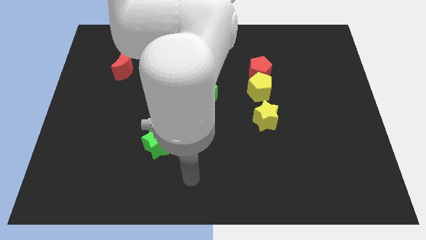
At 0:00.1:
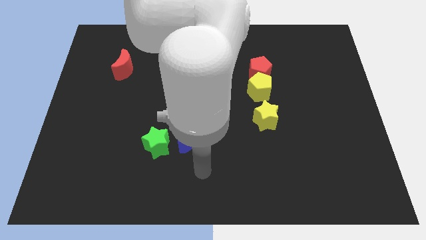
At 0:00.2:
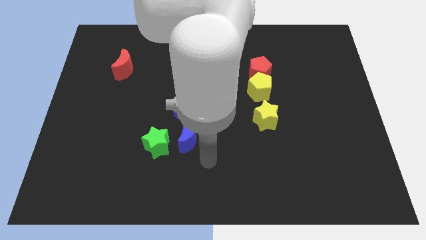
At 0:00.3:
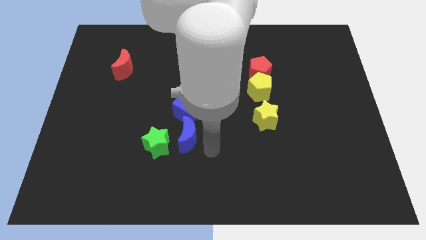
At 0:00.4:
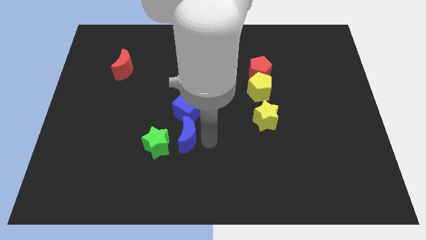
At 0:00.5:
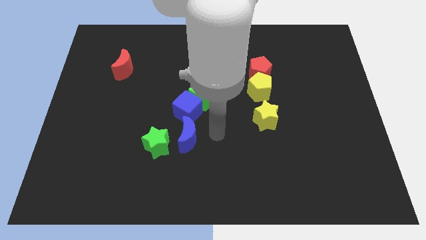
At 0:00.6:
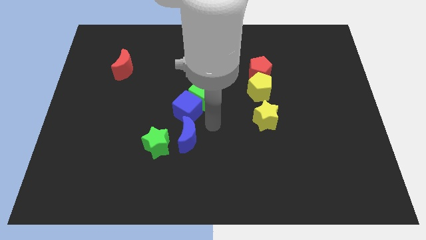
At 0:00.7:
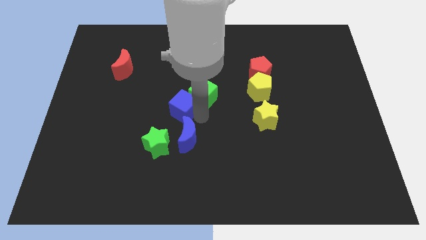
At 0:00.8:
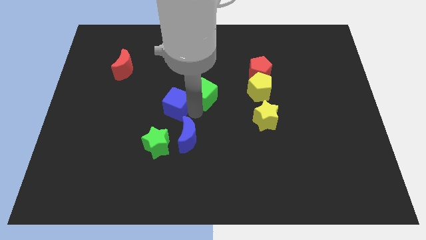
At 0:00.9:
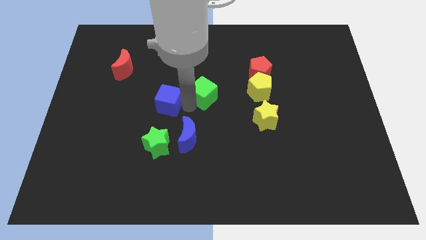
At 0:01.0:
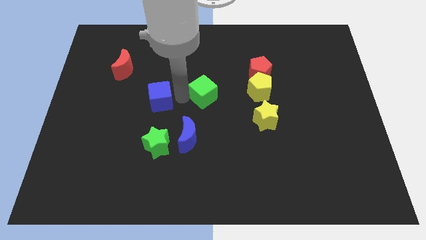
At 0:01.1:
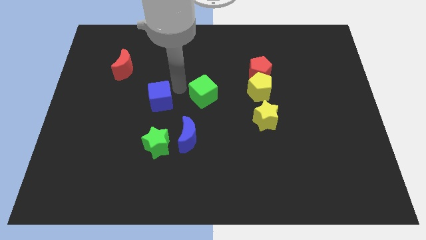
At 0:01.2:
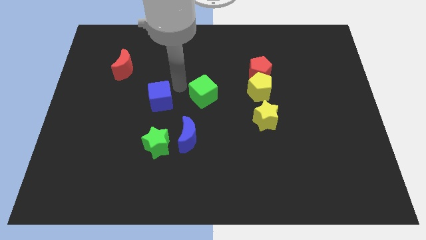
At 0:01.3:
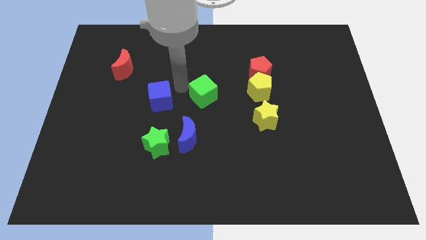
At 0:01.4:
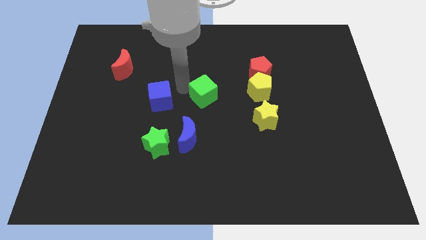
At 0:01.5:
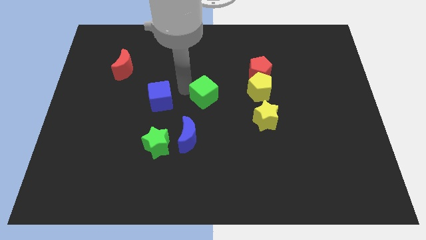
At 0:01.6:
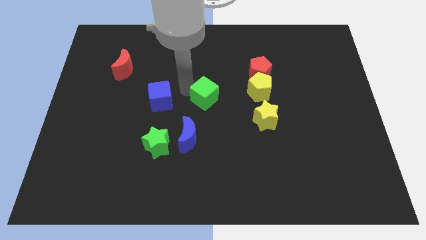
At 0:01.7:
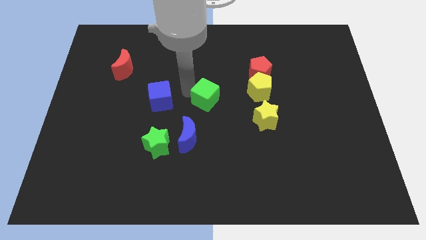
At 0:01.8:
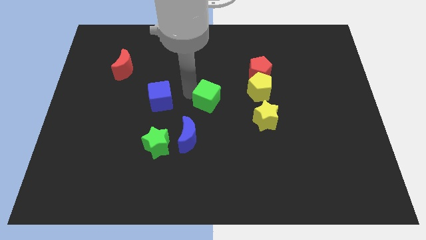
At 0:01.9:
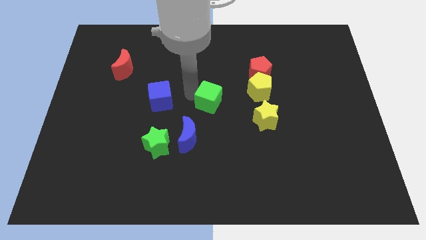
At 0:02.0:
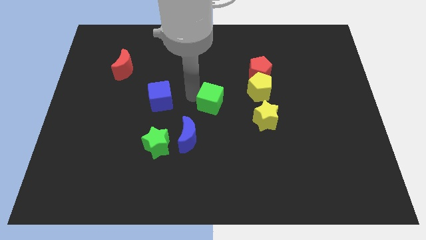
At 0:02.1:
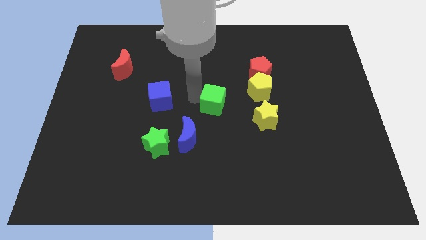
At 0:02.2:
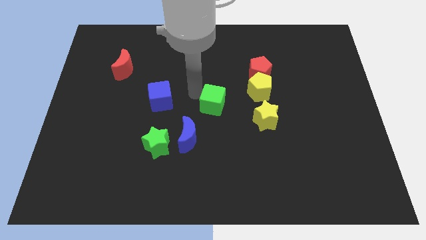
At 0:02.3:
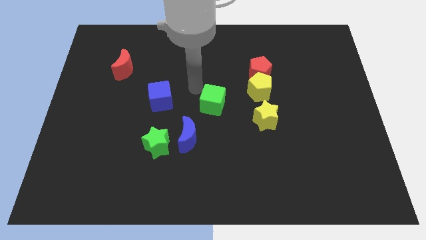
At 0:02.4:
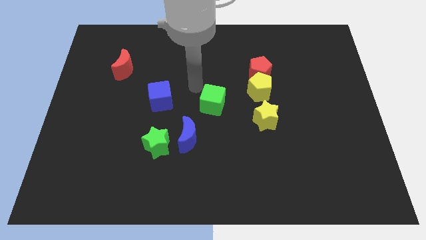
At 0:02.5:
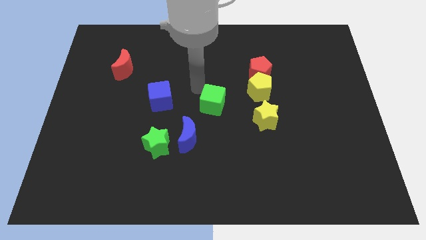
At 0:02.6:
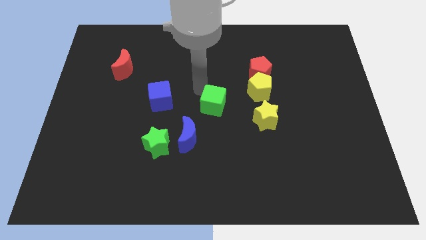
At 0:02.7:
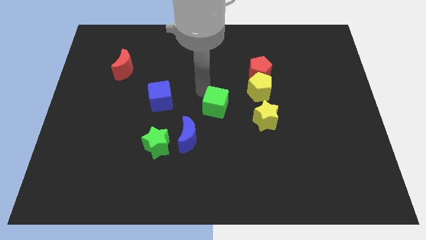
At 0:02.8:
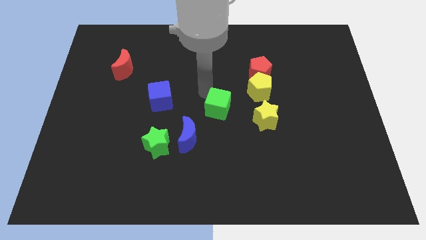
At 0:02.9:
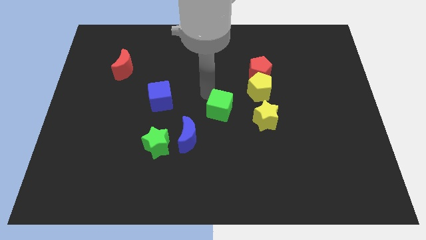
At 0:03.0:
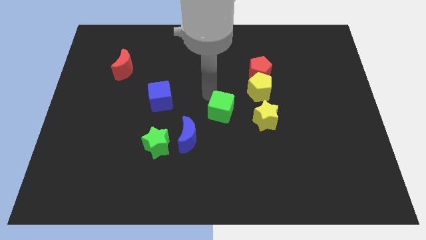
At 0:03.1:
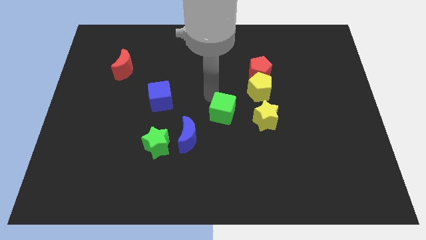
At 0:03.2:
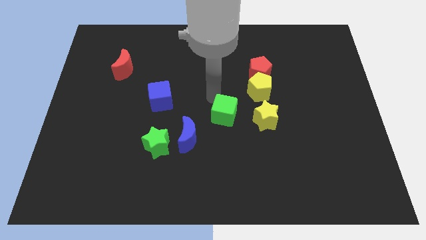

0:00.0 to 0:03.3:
push the green cube down and then to the right a little bit

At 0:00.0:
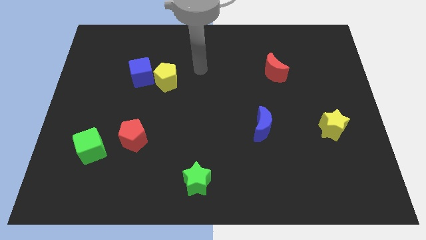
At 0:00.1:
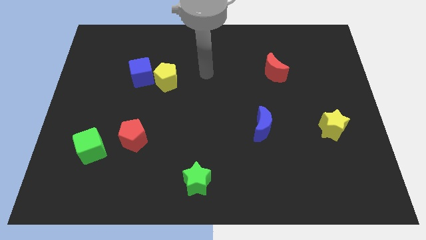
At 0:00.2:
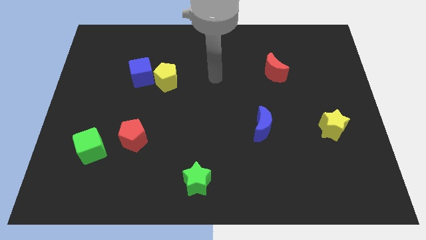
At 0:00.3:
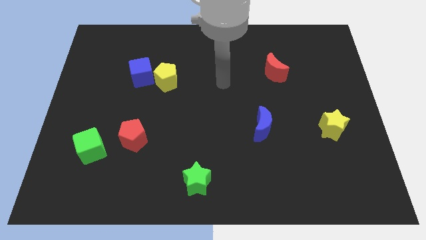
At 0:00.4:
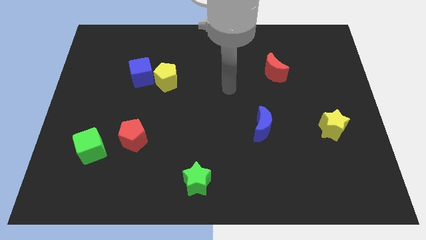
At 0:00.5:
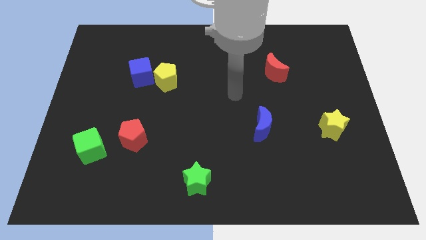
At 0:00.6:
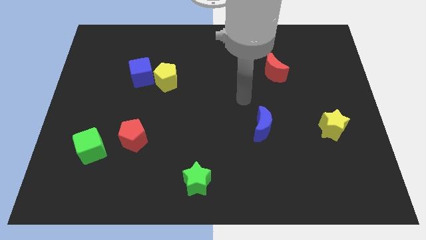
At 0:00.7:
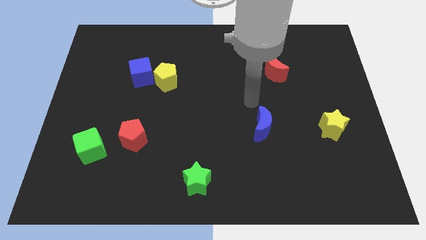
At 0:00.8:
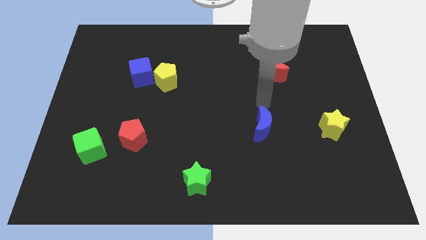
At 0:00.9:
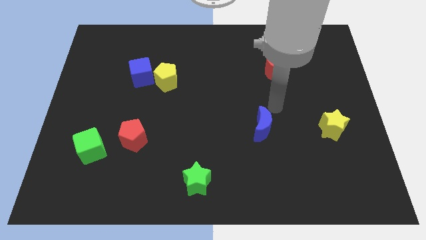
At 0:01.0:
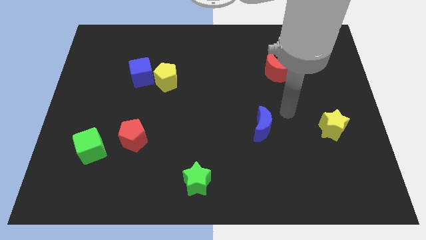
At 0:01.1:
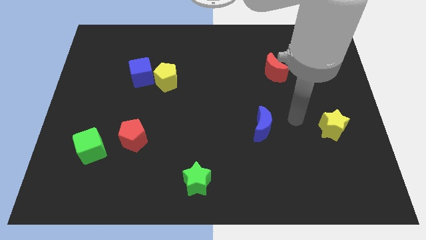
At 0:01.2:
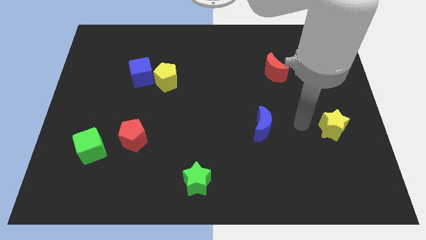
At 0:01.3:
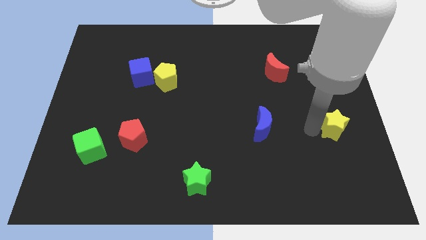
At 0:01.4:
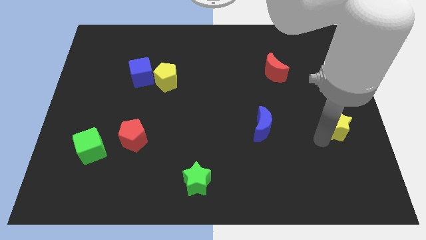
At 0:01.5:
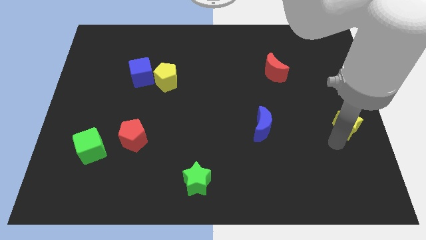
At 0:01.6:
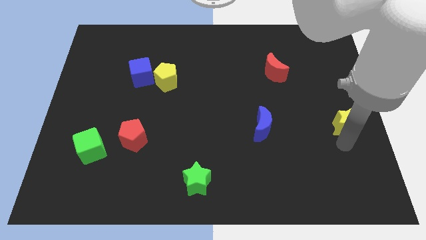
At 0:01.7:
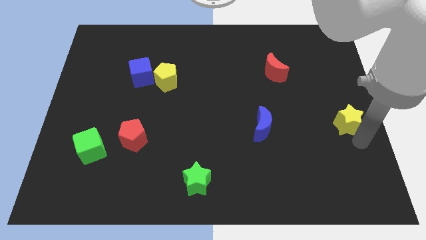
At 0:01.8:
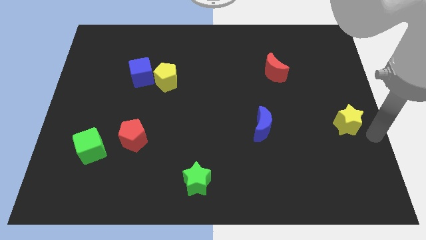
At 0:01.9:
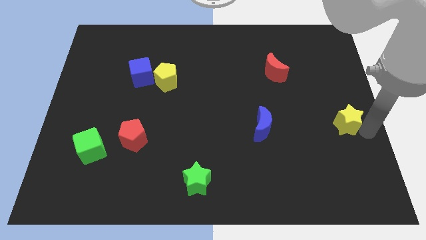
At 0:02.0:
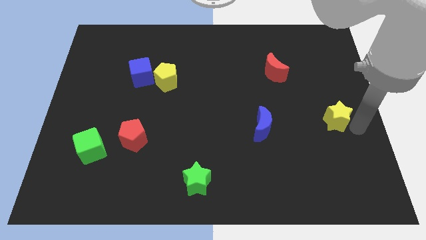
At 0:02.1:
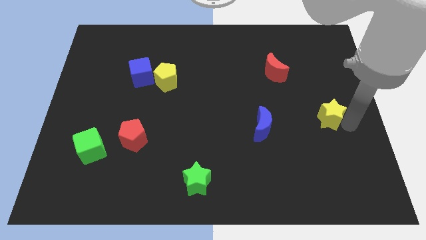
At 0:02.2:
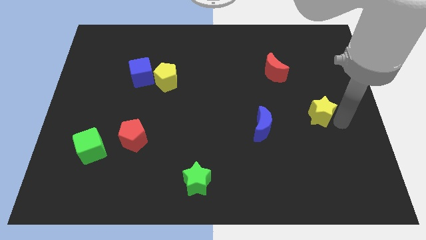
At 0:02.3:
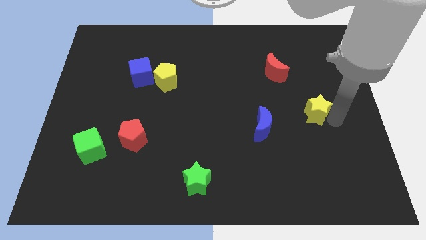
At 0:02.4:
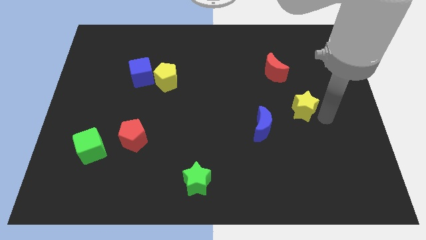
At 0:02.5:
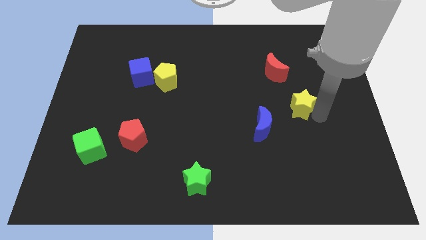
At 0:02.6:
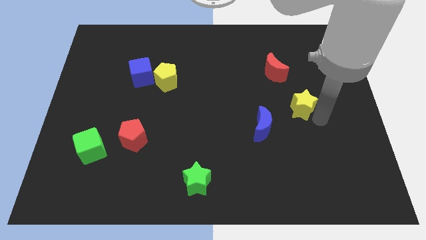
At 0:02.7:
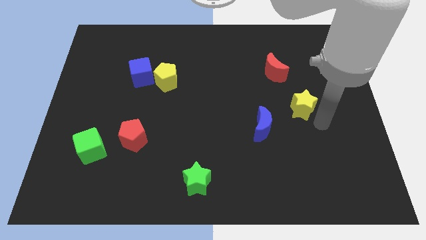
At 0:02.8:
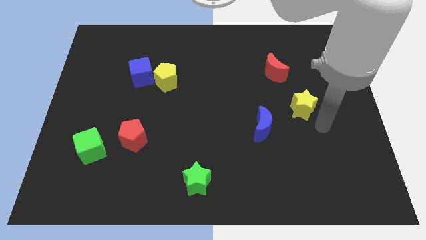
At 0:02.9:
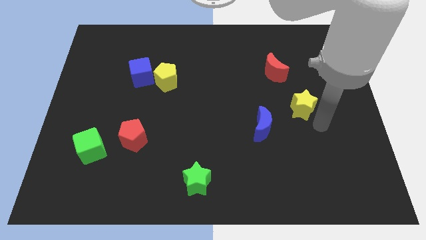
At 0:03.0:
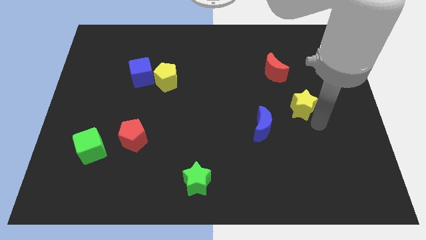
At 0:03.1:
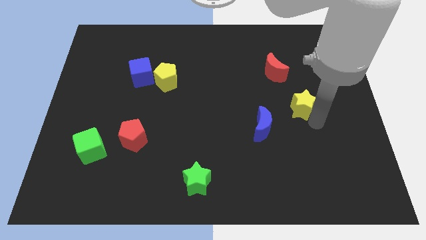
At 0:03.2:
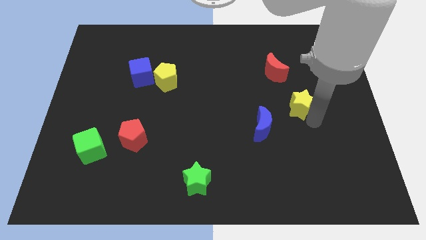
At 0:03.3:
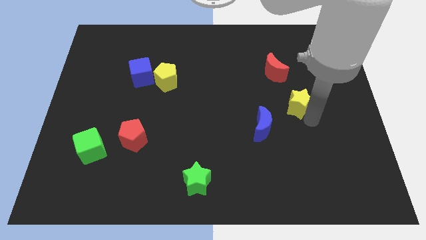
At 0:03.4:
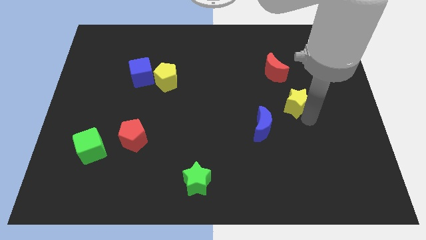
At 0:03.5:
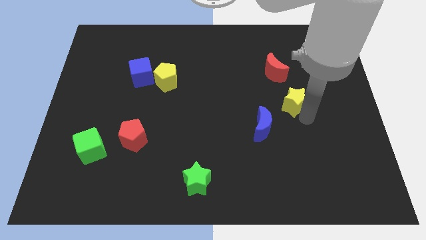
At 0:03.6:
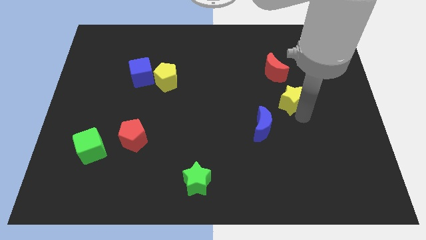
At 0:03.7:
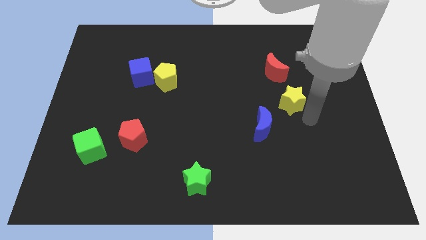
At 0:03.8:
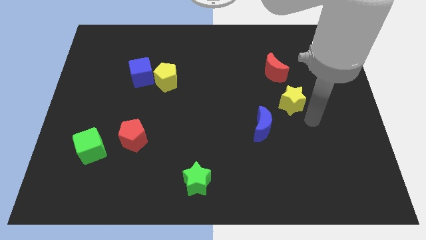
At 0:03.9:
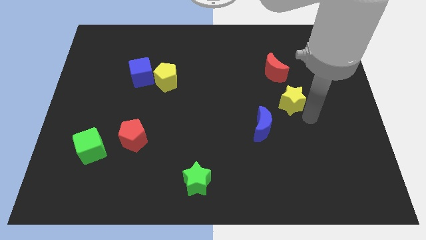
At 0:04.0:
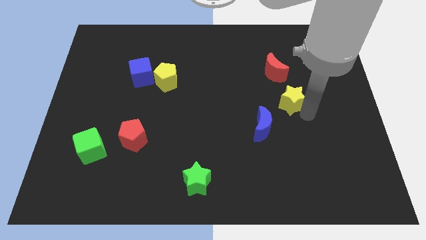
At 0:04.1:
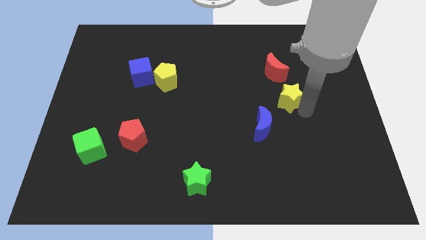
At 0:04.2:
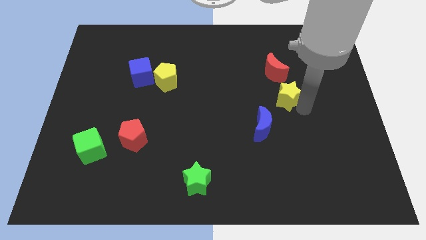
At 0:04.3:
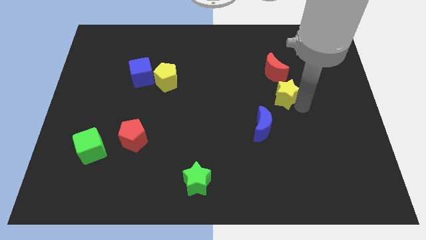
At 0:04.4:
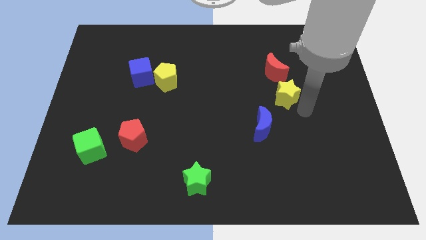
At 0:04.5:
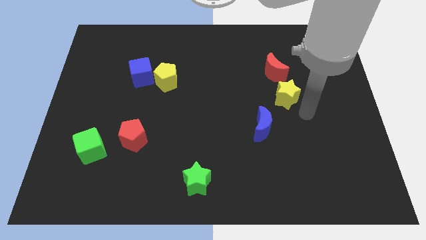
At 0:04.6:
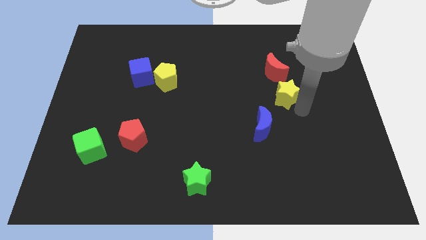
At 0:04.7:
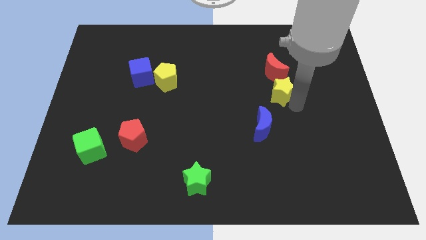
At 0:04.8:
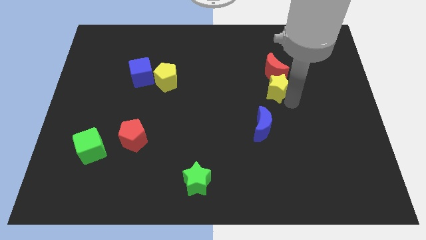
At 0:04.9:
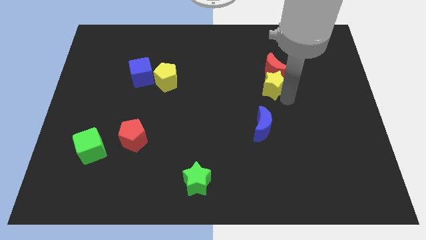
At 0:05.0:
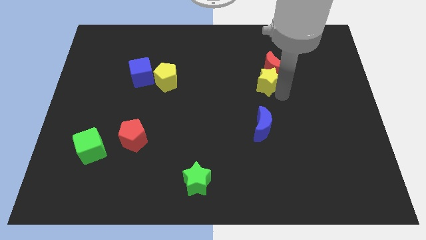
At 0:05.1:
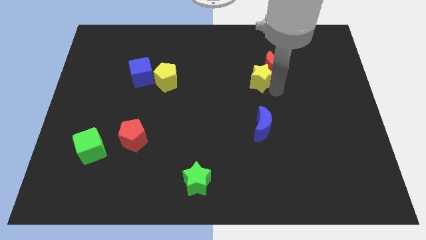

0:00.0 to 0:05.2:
slide the yellow star upwards and then left
